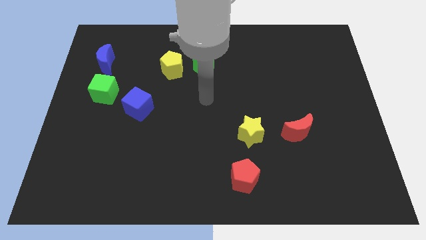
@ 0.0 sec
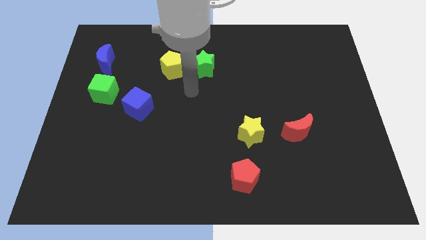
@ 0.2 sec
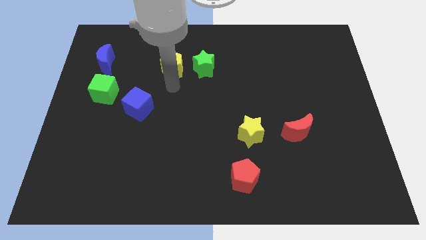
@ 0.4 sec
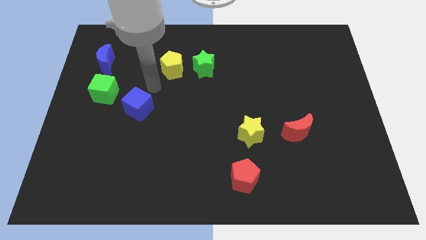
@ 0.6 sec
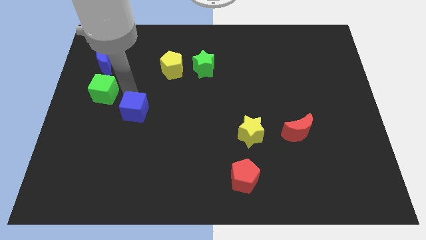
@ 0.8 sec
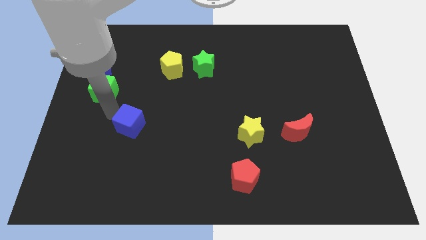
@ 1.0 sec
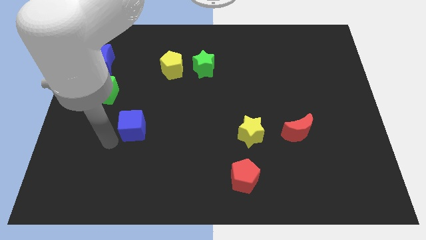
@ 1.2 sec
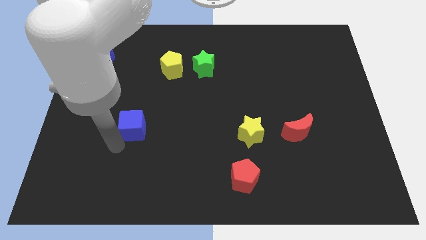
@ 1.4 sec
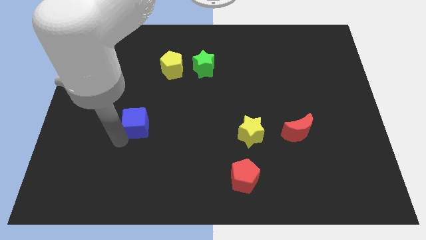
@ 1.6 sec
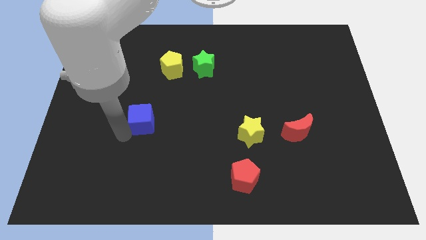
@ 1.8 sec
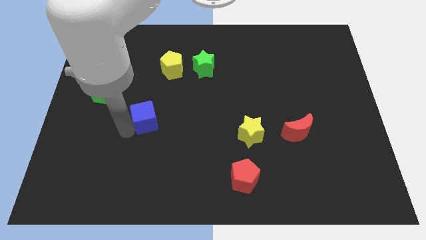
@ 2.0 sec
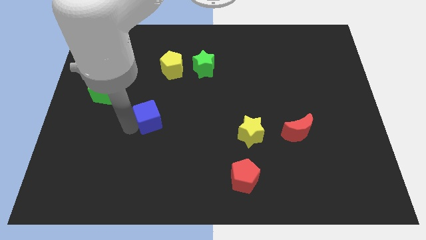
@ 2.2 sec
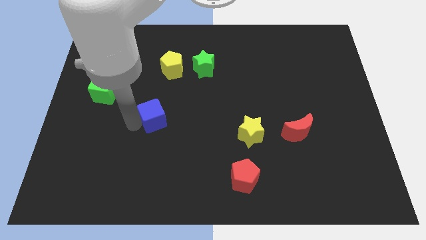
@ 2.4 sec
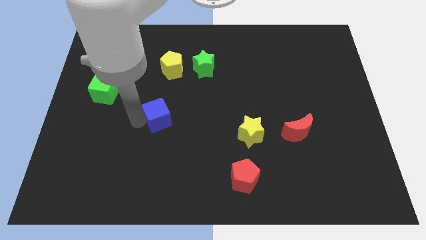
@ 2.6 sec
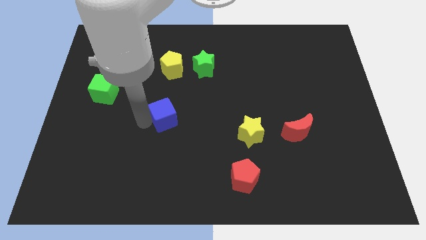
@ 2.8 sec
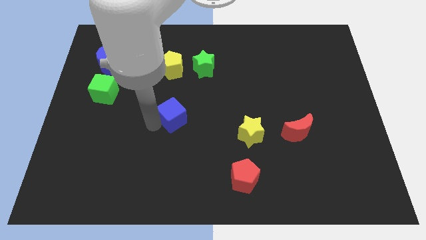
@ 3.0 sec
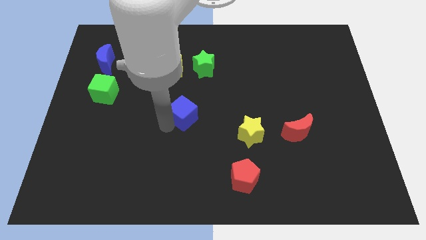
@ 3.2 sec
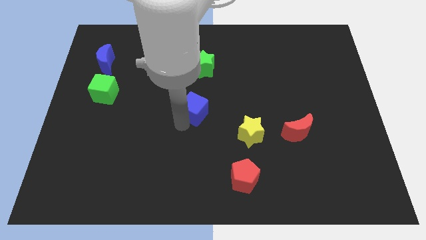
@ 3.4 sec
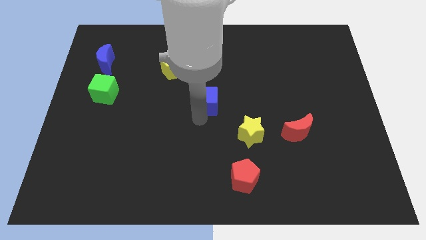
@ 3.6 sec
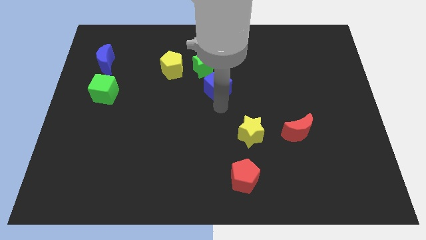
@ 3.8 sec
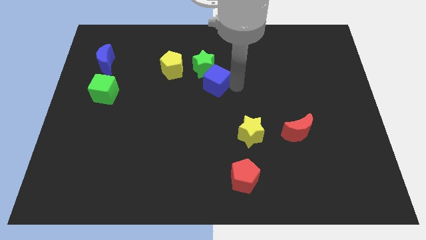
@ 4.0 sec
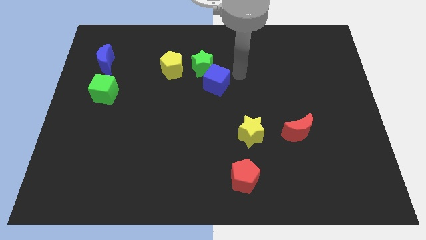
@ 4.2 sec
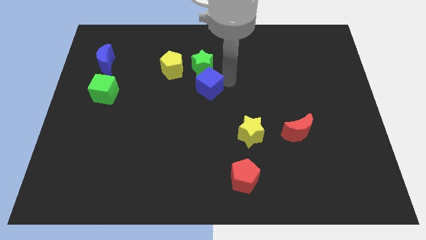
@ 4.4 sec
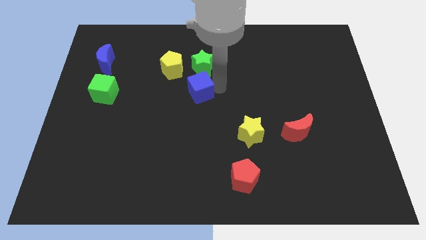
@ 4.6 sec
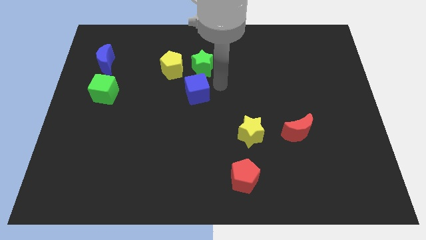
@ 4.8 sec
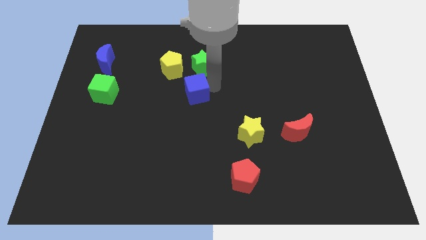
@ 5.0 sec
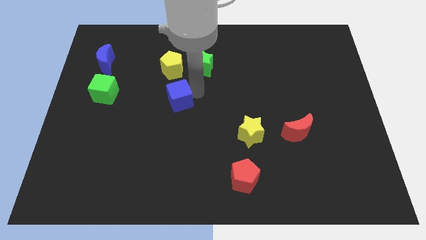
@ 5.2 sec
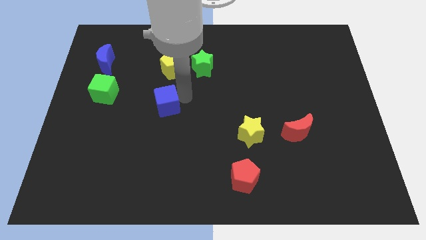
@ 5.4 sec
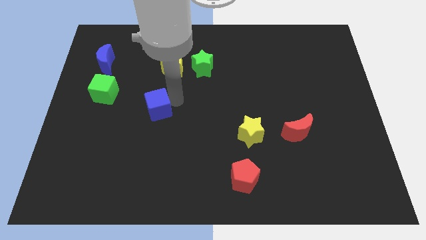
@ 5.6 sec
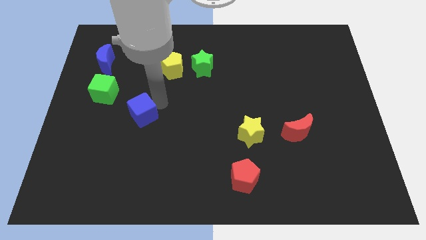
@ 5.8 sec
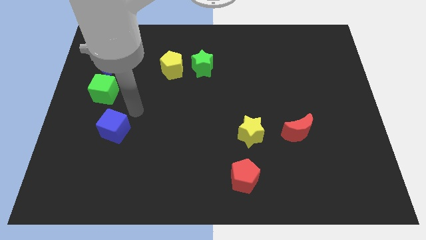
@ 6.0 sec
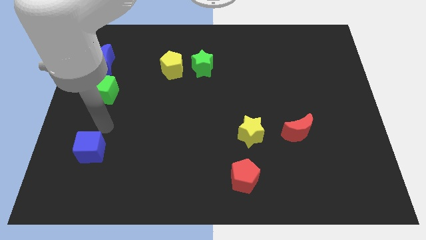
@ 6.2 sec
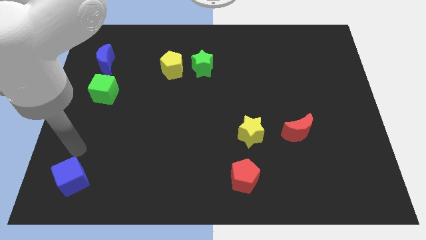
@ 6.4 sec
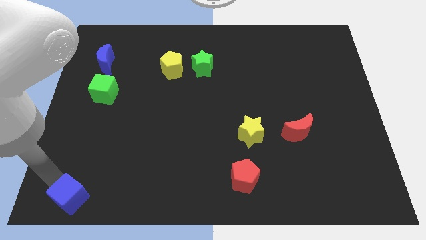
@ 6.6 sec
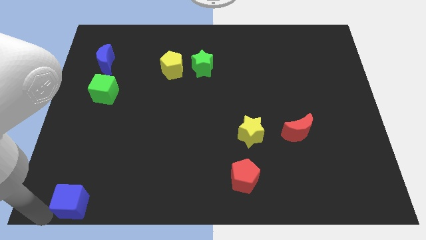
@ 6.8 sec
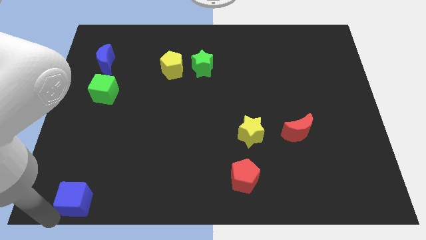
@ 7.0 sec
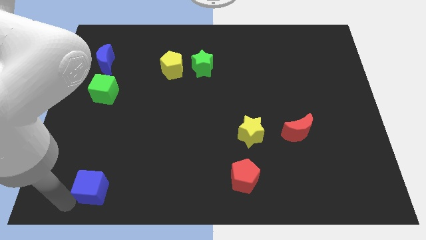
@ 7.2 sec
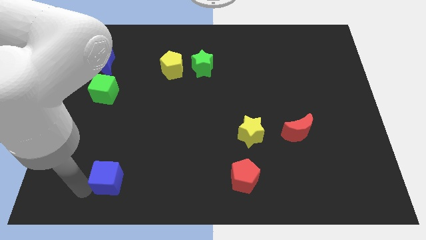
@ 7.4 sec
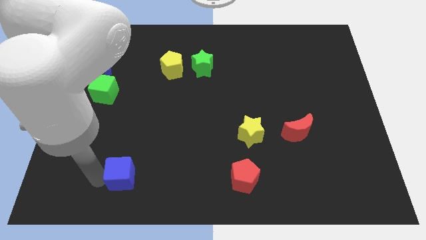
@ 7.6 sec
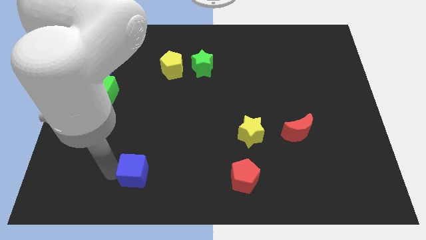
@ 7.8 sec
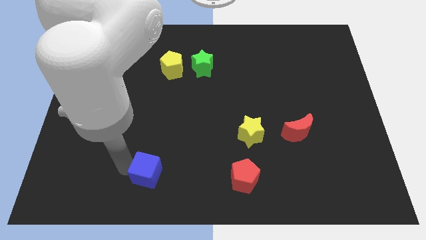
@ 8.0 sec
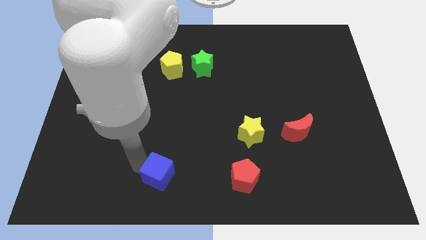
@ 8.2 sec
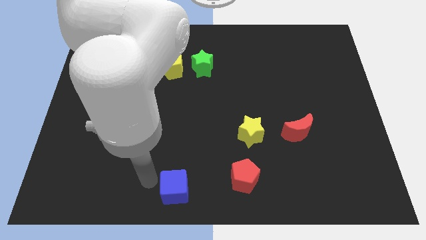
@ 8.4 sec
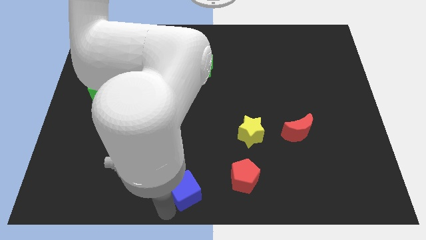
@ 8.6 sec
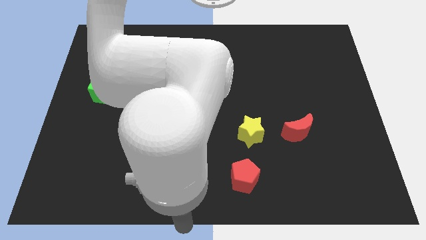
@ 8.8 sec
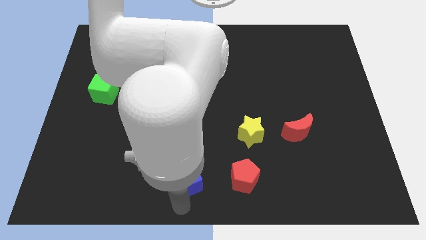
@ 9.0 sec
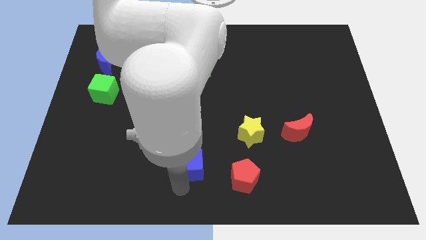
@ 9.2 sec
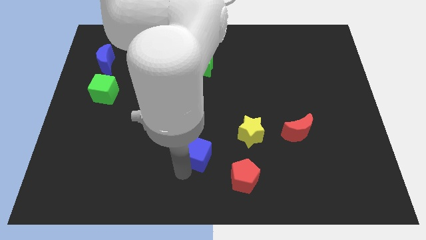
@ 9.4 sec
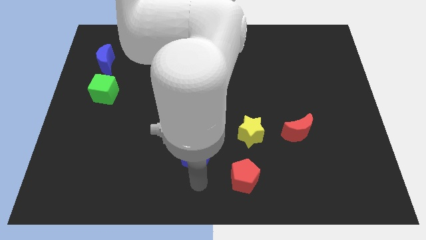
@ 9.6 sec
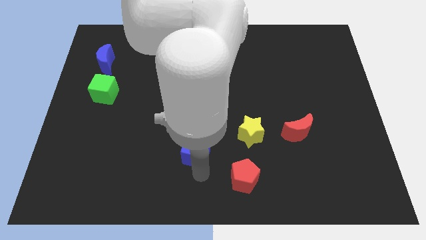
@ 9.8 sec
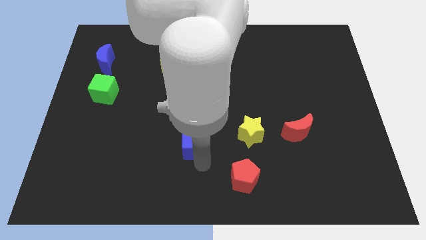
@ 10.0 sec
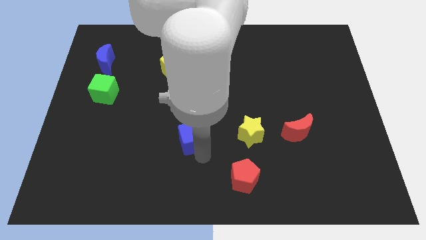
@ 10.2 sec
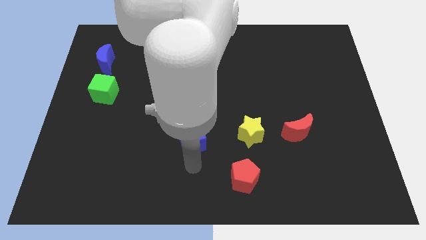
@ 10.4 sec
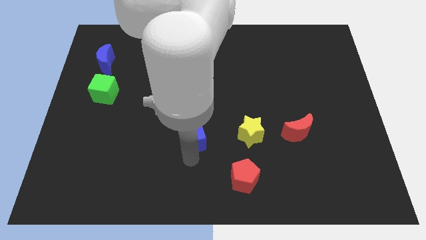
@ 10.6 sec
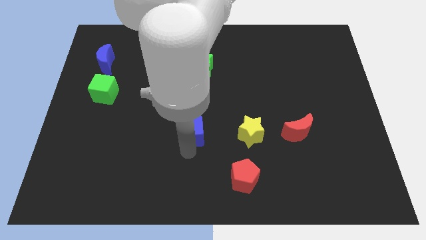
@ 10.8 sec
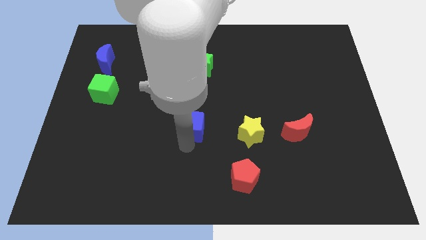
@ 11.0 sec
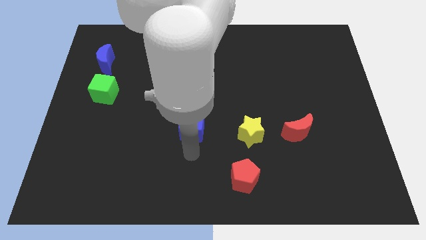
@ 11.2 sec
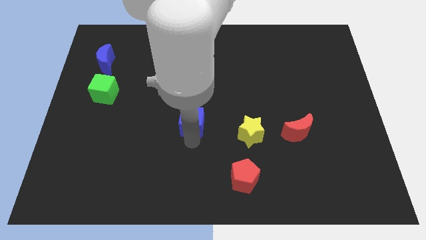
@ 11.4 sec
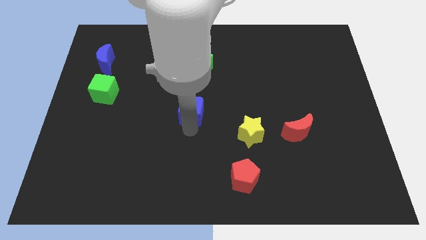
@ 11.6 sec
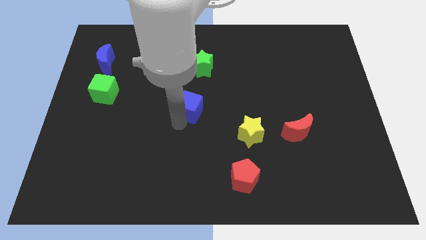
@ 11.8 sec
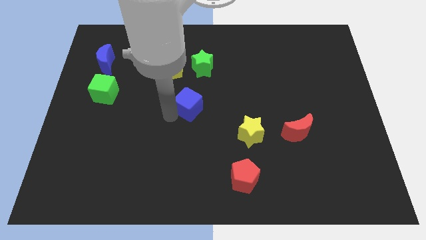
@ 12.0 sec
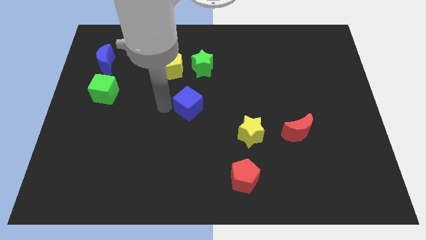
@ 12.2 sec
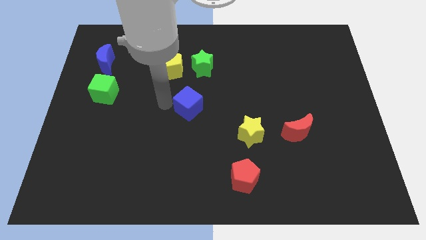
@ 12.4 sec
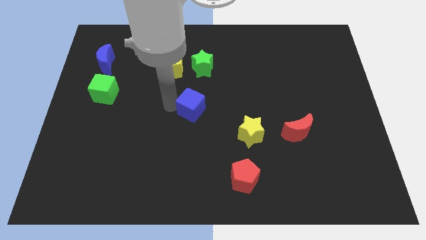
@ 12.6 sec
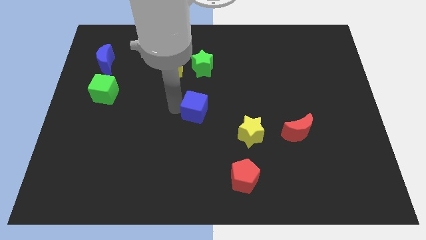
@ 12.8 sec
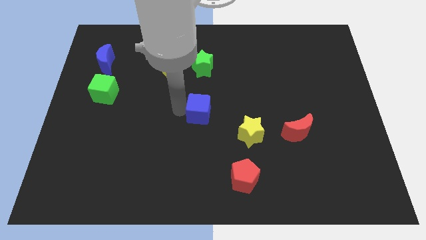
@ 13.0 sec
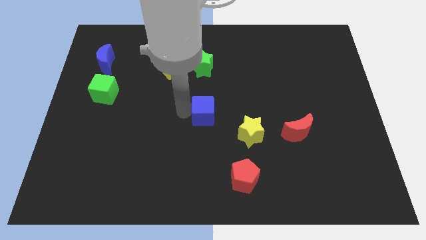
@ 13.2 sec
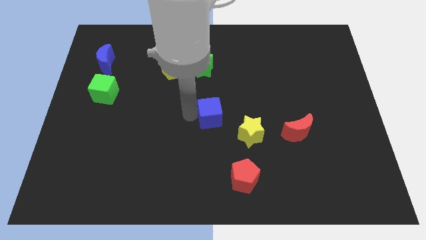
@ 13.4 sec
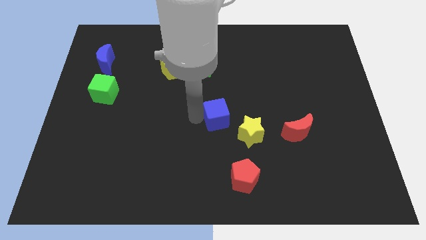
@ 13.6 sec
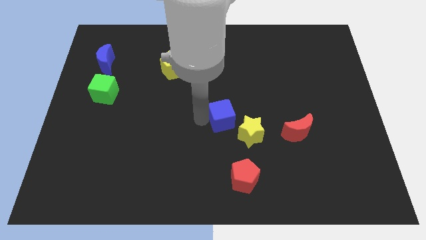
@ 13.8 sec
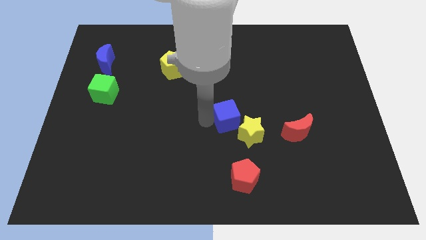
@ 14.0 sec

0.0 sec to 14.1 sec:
push the blue cube right

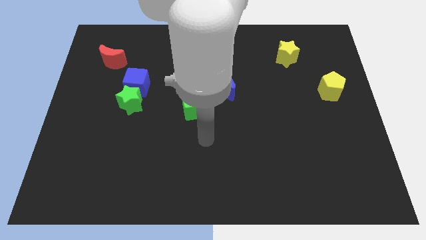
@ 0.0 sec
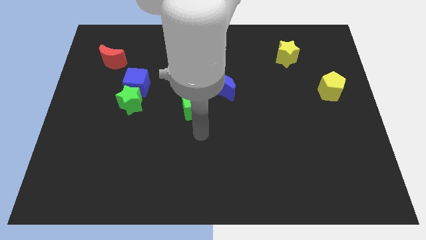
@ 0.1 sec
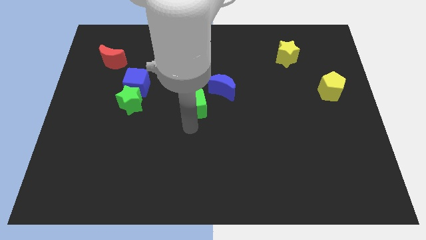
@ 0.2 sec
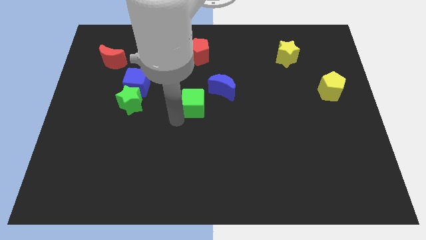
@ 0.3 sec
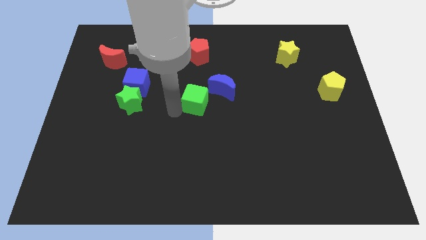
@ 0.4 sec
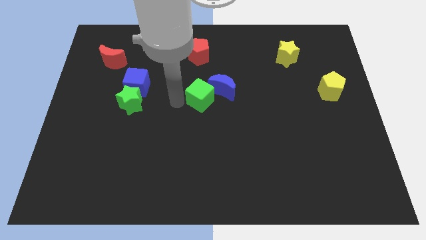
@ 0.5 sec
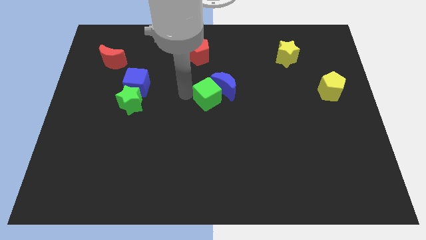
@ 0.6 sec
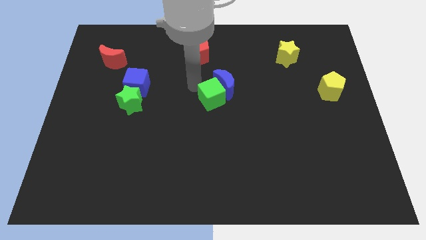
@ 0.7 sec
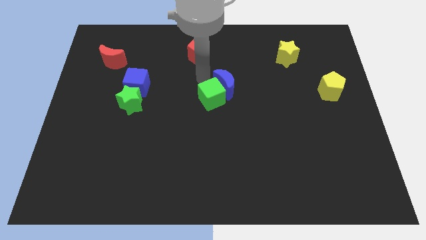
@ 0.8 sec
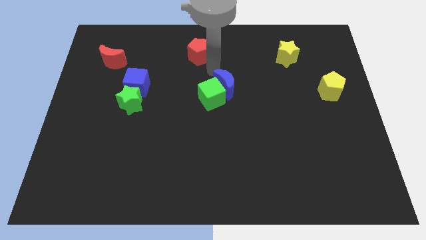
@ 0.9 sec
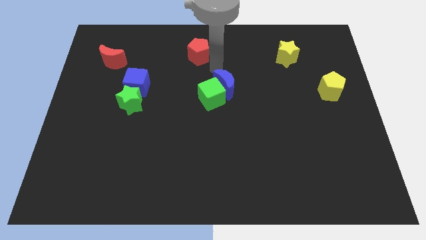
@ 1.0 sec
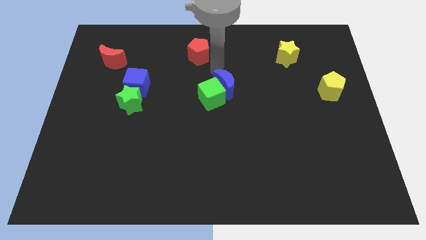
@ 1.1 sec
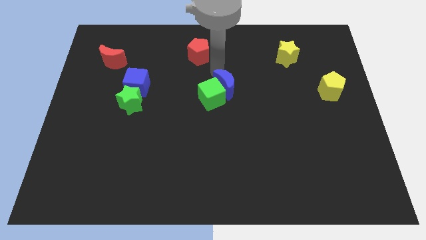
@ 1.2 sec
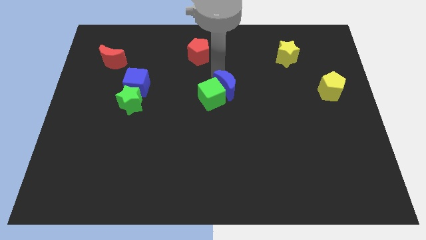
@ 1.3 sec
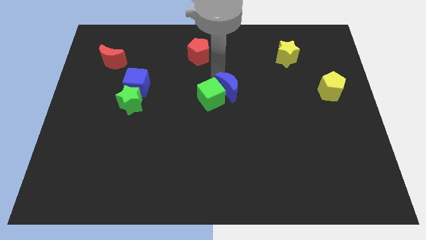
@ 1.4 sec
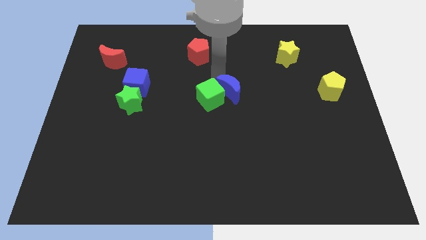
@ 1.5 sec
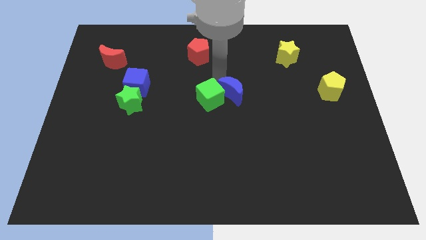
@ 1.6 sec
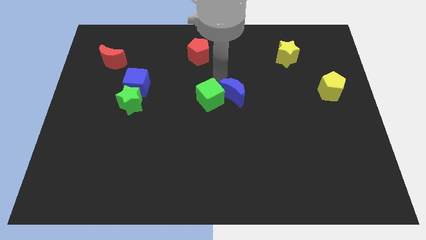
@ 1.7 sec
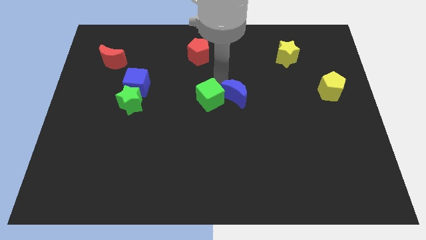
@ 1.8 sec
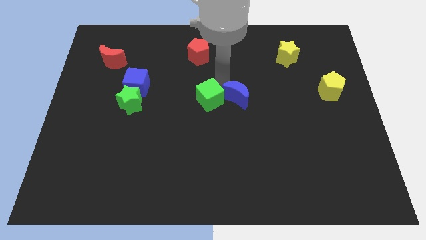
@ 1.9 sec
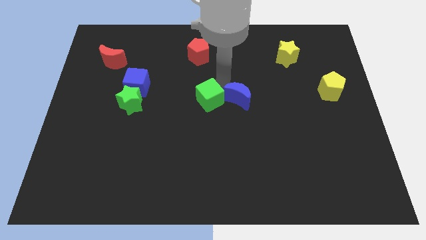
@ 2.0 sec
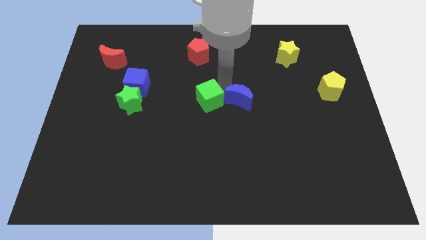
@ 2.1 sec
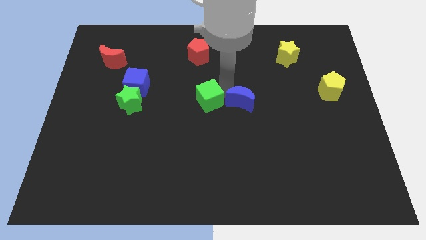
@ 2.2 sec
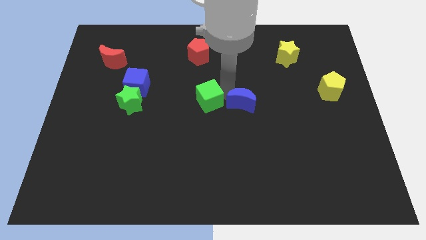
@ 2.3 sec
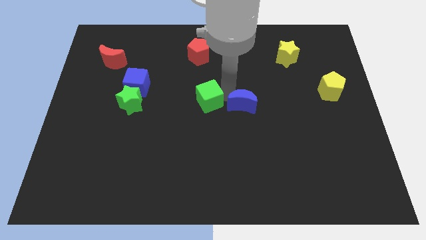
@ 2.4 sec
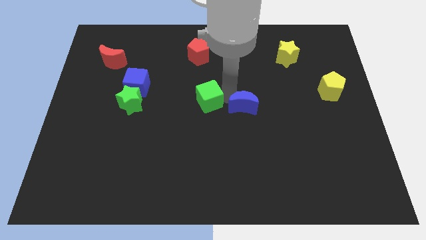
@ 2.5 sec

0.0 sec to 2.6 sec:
move the blue moon a little bit downwards and to the right diagonally
